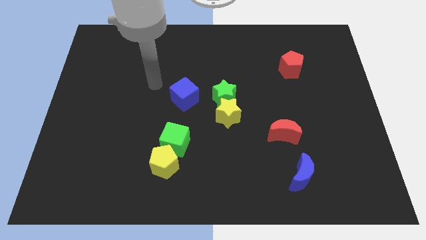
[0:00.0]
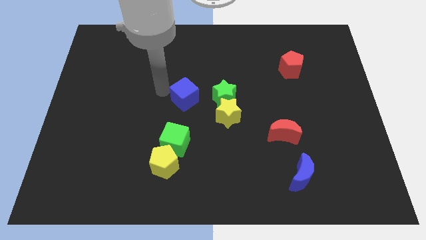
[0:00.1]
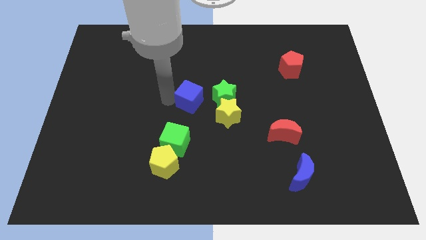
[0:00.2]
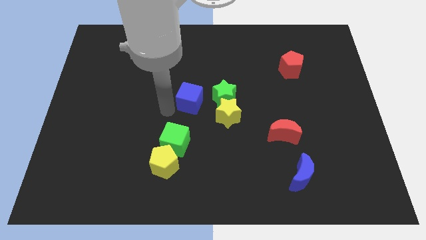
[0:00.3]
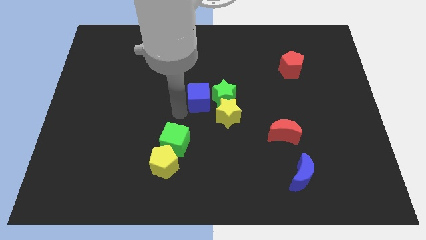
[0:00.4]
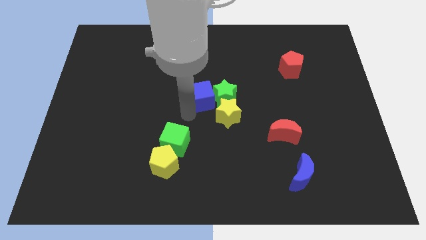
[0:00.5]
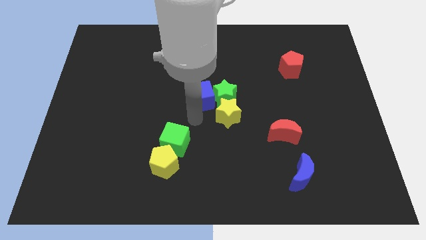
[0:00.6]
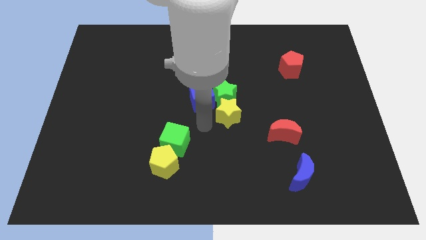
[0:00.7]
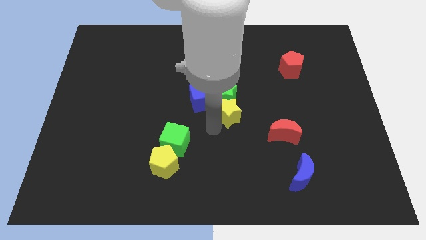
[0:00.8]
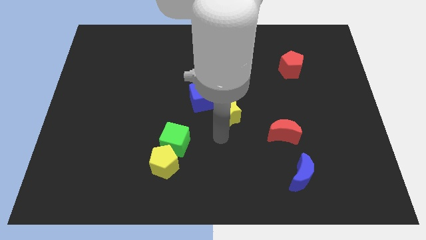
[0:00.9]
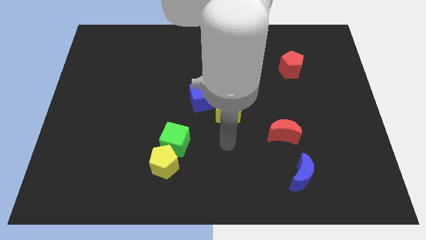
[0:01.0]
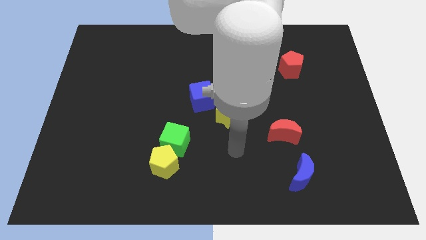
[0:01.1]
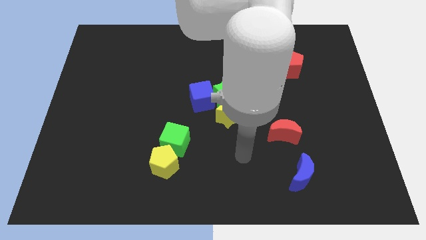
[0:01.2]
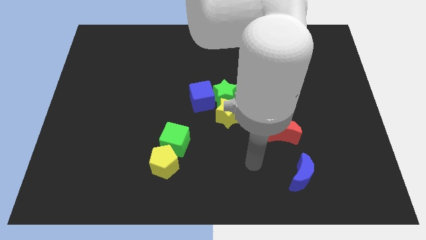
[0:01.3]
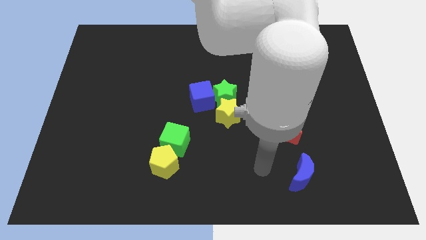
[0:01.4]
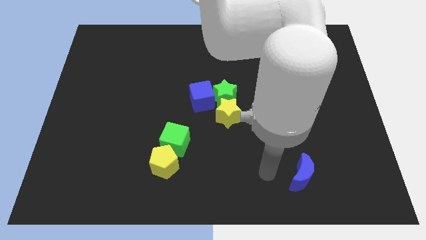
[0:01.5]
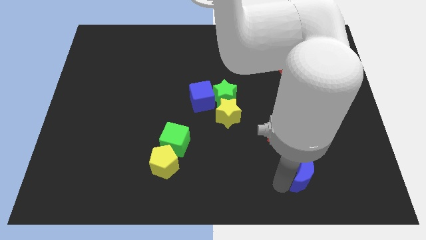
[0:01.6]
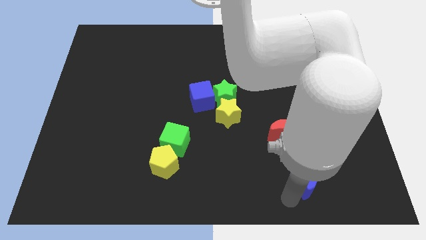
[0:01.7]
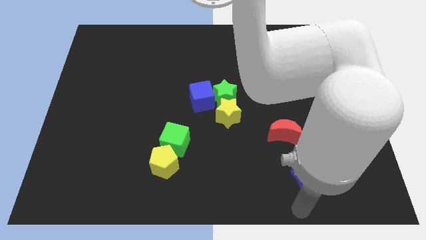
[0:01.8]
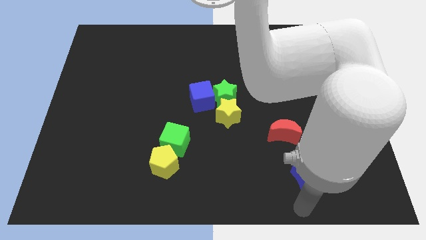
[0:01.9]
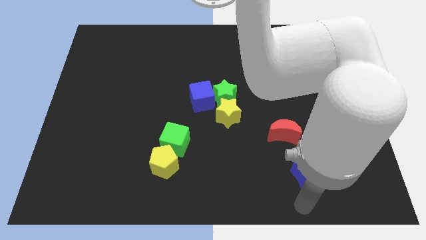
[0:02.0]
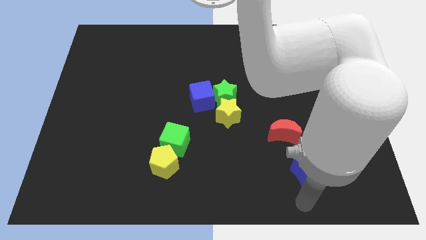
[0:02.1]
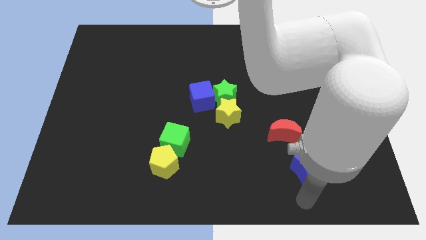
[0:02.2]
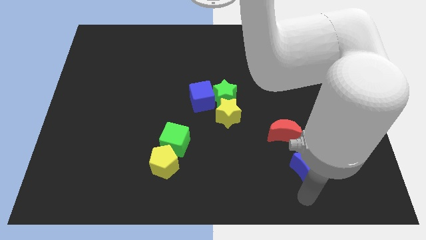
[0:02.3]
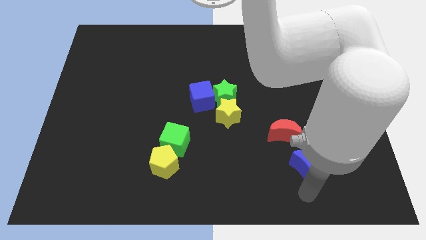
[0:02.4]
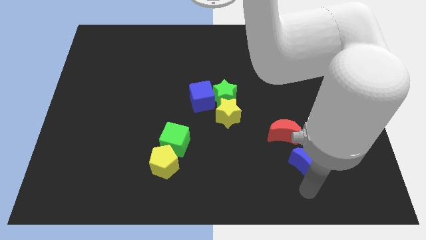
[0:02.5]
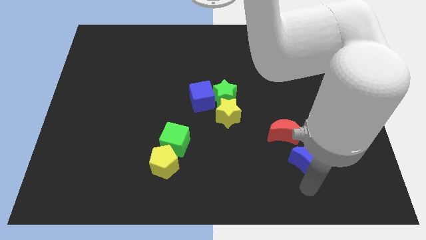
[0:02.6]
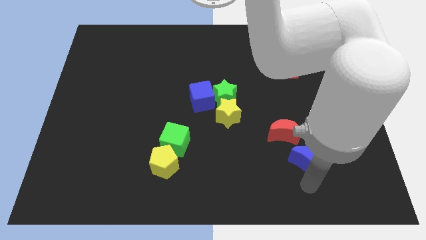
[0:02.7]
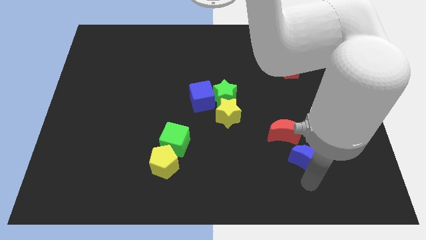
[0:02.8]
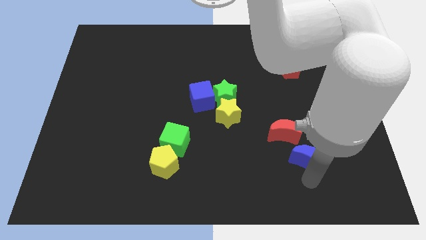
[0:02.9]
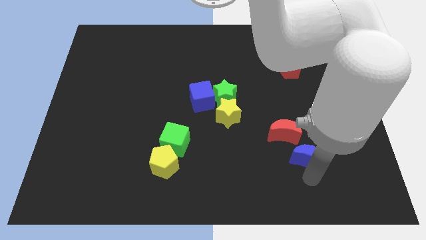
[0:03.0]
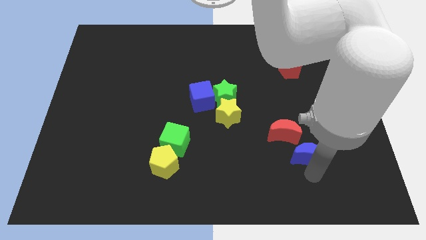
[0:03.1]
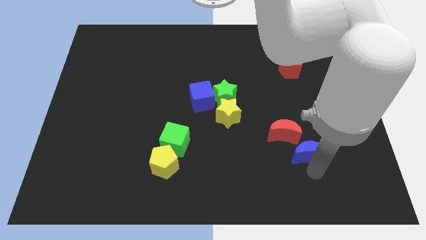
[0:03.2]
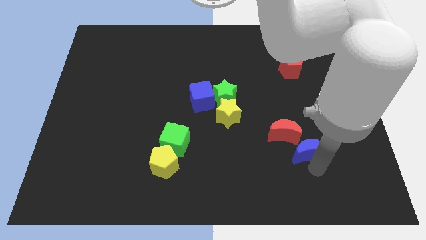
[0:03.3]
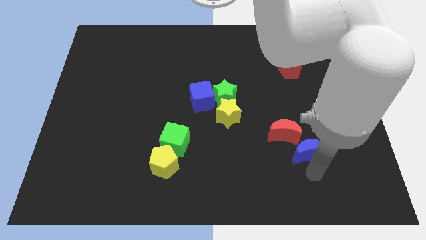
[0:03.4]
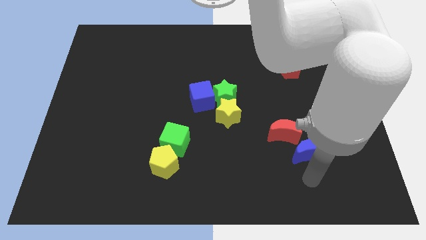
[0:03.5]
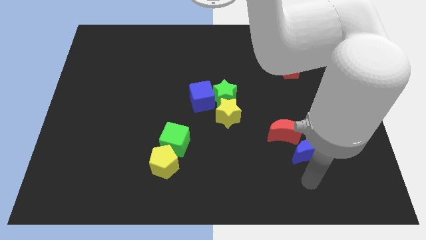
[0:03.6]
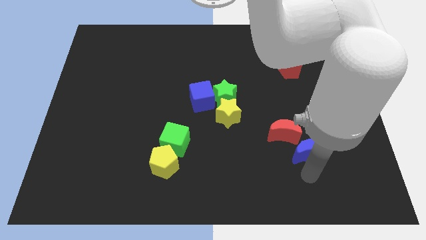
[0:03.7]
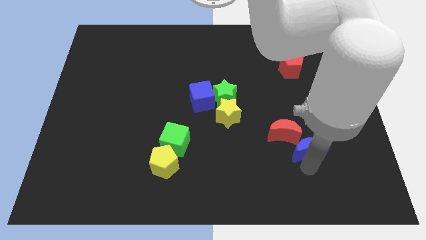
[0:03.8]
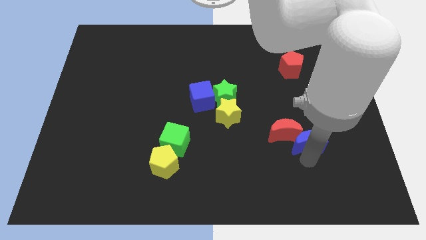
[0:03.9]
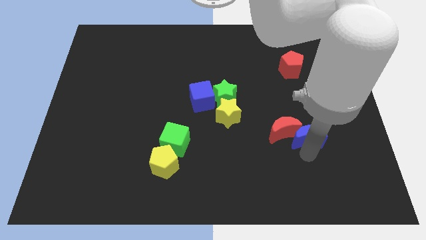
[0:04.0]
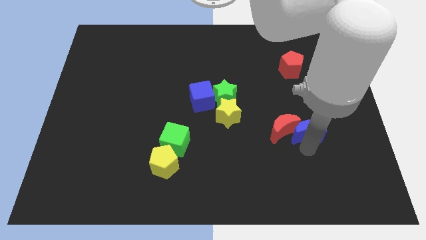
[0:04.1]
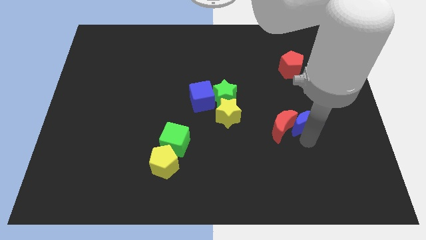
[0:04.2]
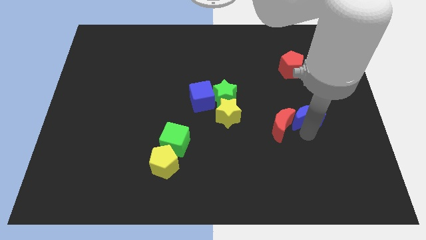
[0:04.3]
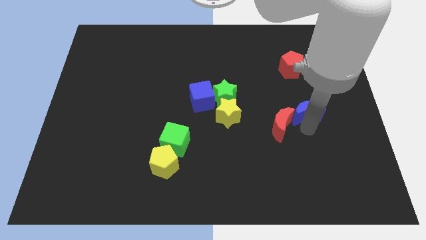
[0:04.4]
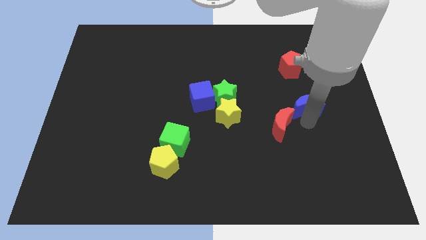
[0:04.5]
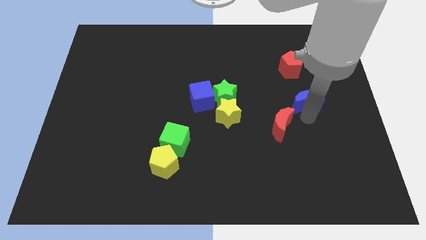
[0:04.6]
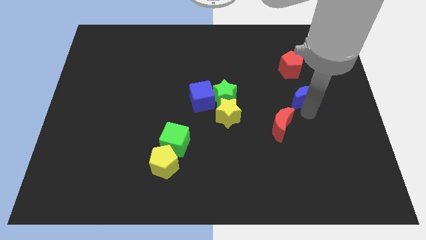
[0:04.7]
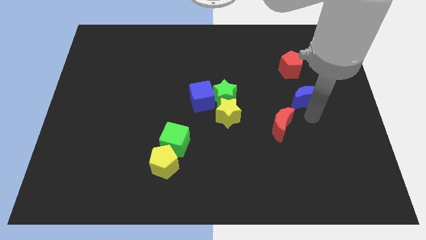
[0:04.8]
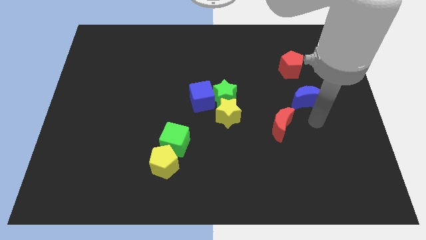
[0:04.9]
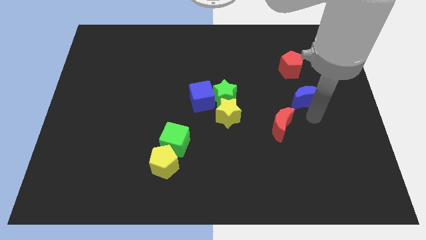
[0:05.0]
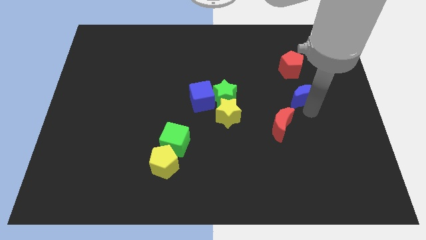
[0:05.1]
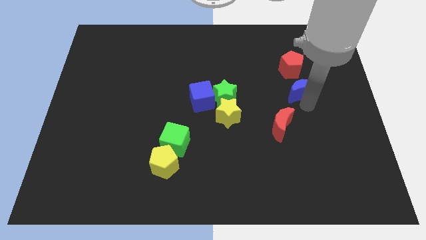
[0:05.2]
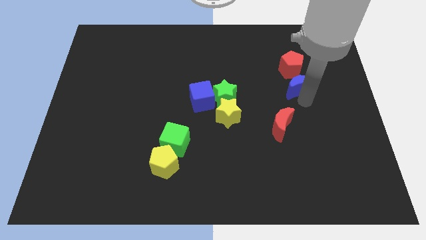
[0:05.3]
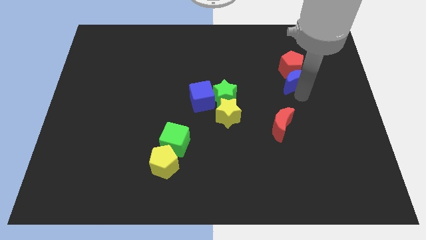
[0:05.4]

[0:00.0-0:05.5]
push the blue moon next to the red pentagon

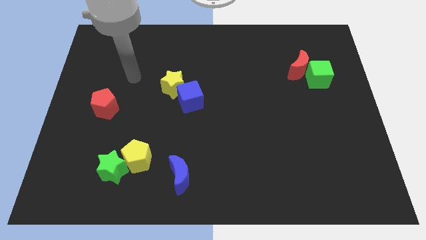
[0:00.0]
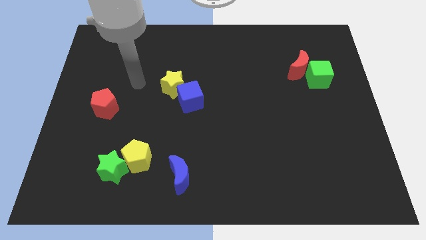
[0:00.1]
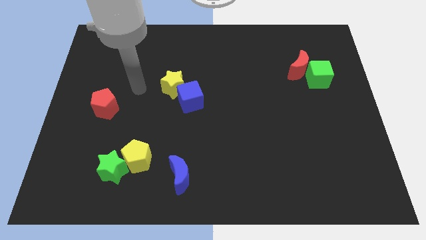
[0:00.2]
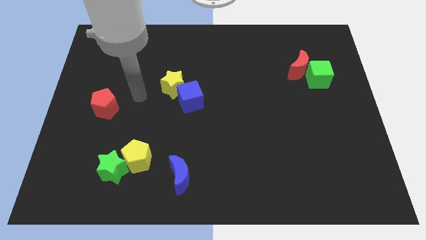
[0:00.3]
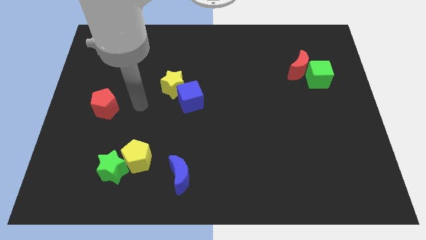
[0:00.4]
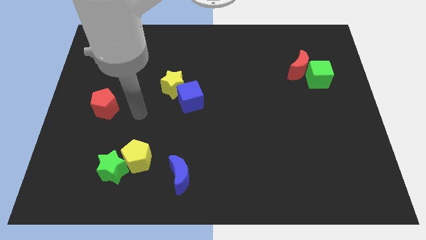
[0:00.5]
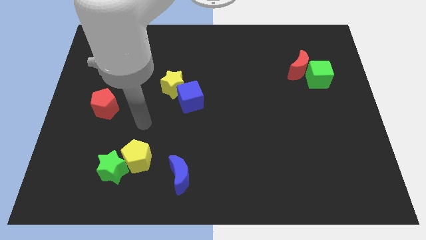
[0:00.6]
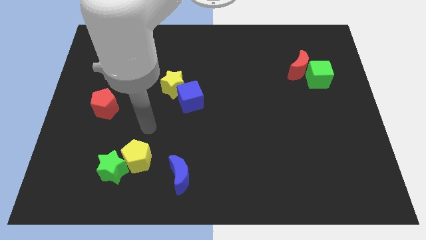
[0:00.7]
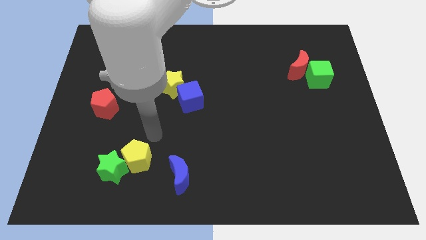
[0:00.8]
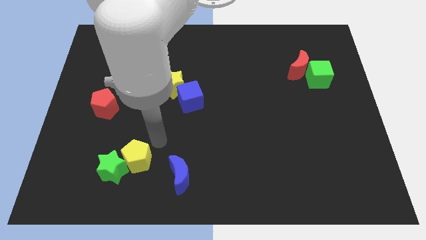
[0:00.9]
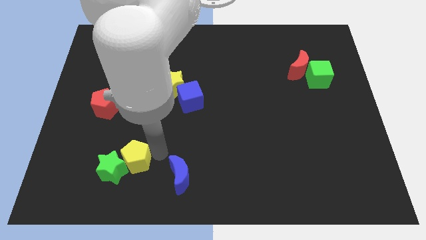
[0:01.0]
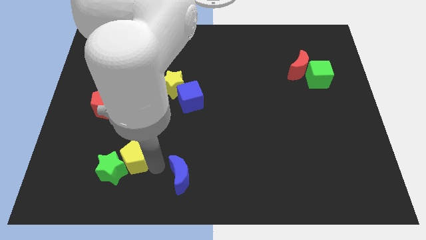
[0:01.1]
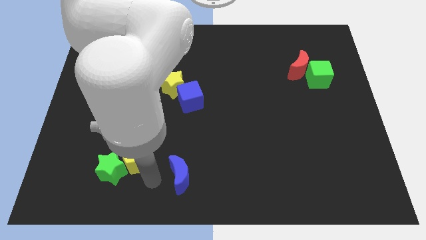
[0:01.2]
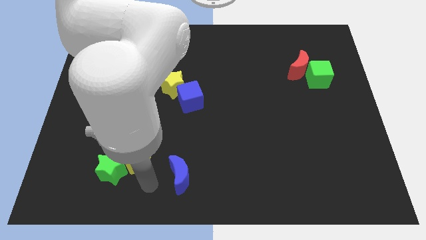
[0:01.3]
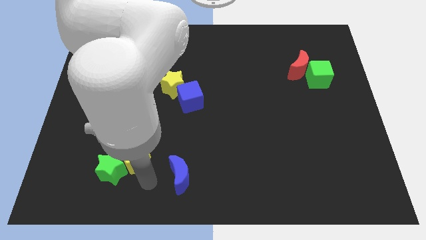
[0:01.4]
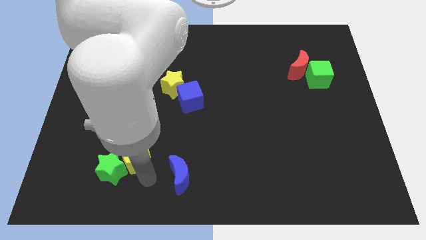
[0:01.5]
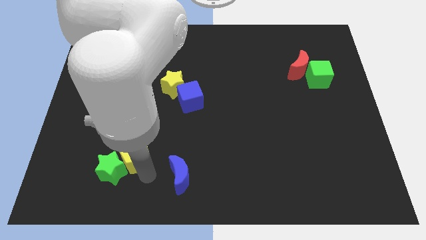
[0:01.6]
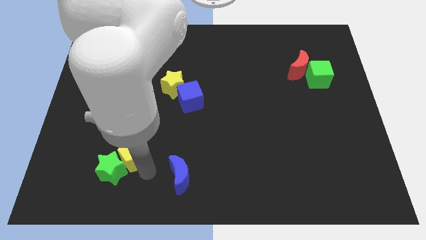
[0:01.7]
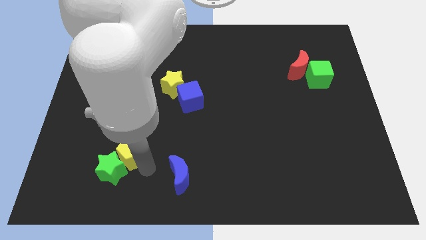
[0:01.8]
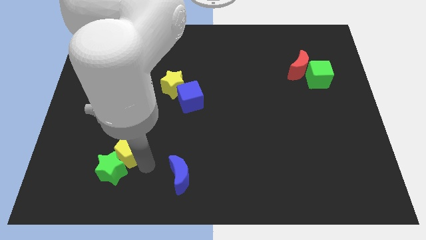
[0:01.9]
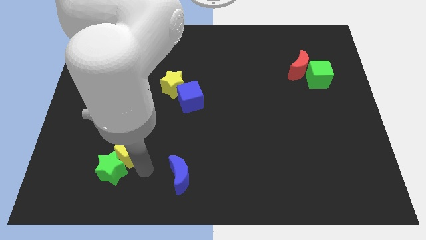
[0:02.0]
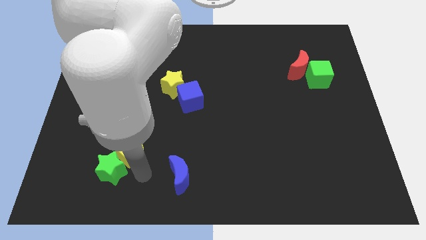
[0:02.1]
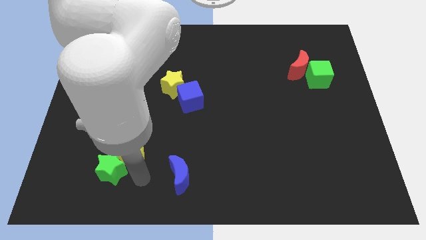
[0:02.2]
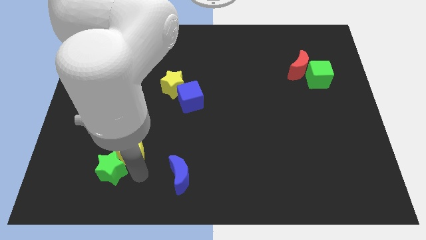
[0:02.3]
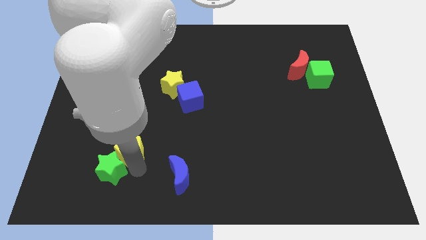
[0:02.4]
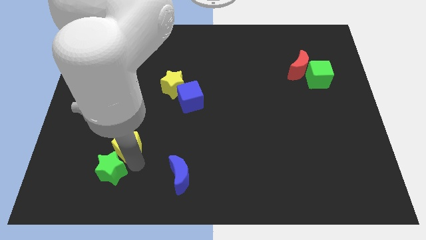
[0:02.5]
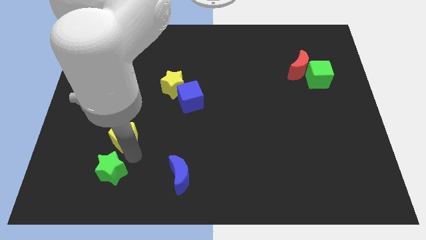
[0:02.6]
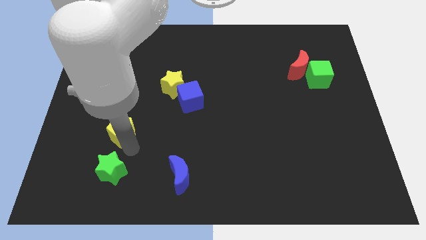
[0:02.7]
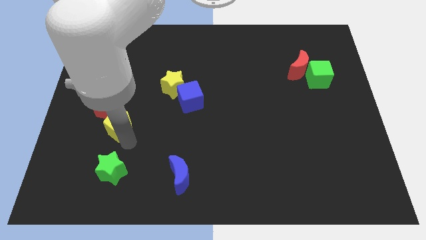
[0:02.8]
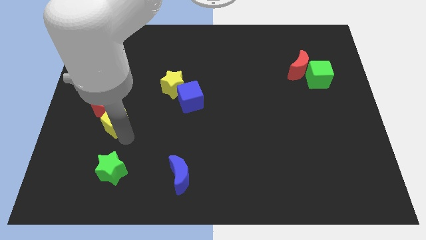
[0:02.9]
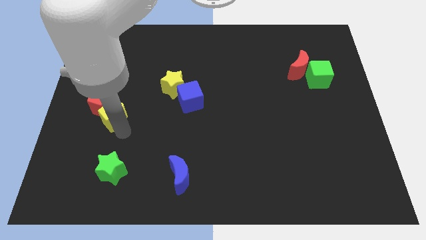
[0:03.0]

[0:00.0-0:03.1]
push the yellow pentagon close to the red pentagon
